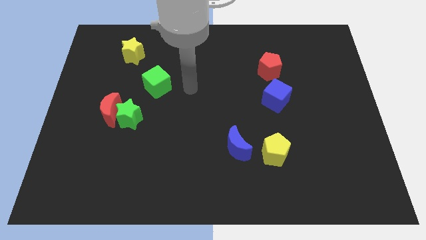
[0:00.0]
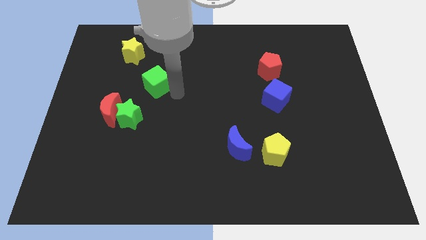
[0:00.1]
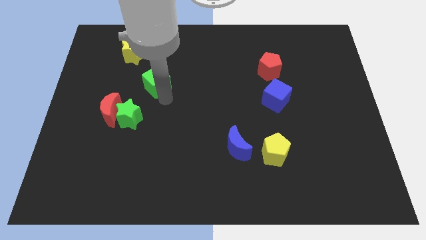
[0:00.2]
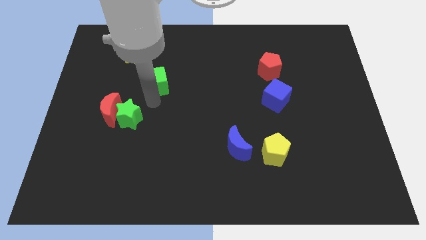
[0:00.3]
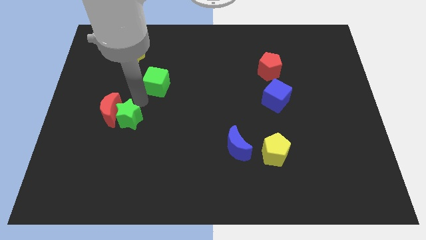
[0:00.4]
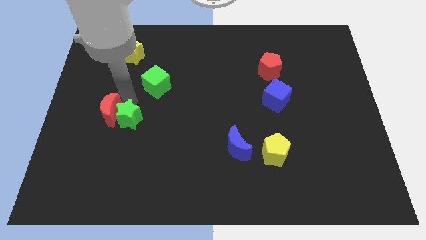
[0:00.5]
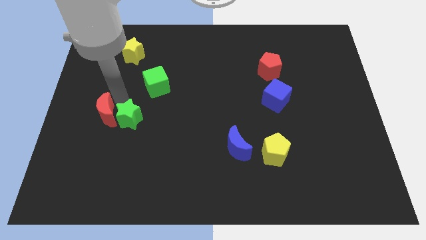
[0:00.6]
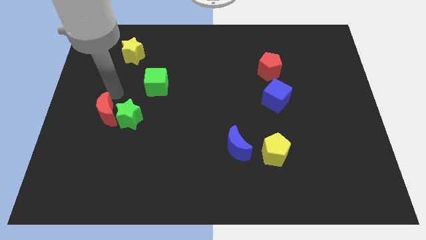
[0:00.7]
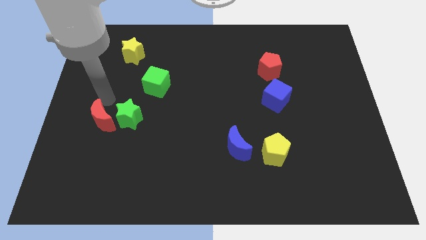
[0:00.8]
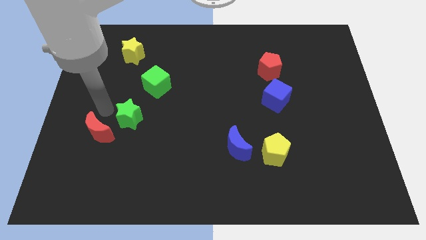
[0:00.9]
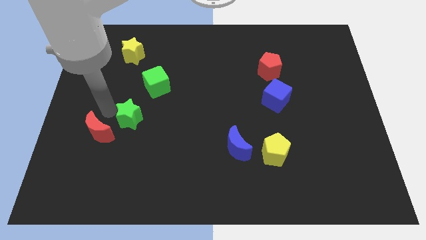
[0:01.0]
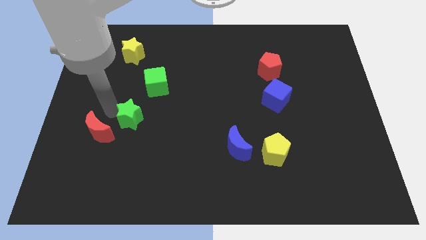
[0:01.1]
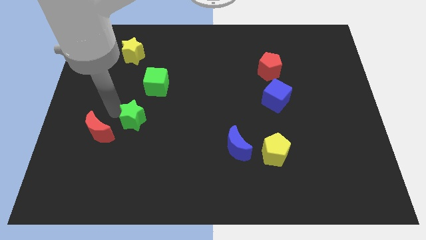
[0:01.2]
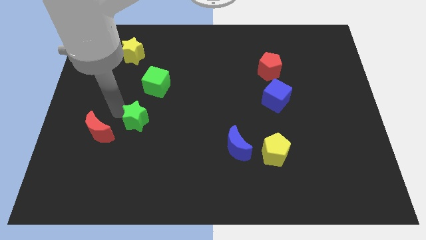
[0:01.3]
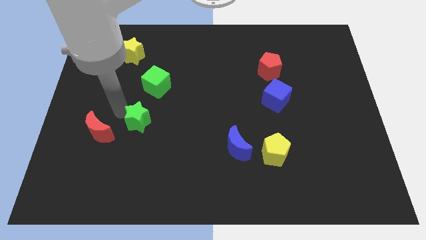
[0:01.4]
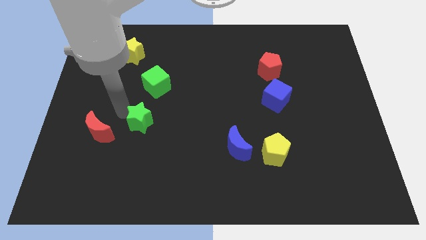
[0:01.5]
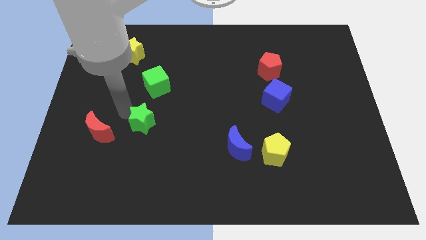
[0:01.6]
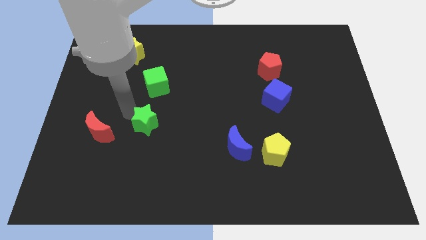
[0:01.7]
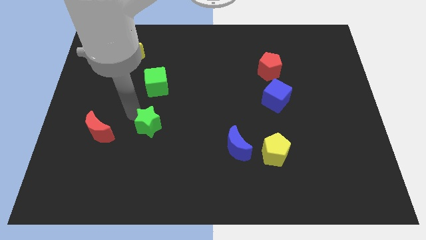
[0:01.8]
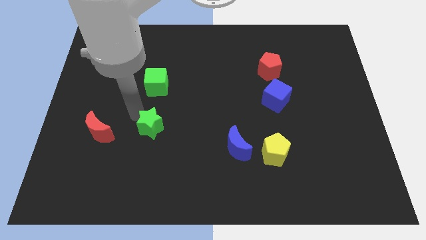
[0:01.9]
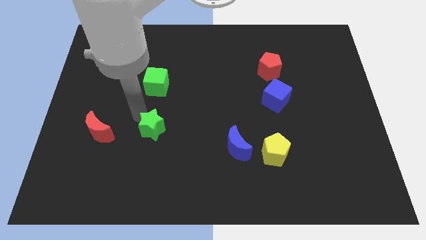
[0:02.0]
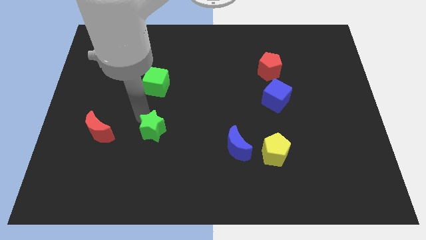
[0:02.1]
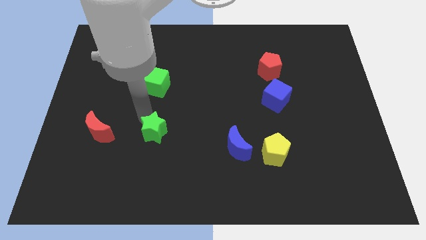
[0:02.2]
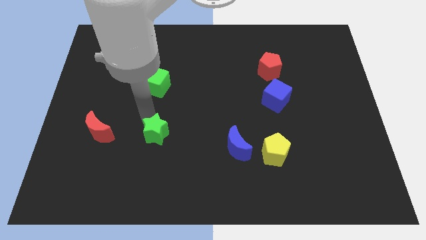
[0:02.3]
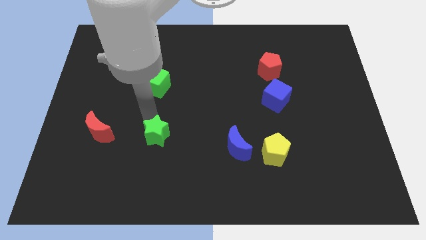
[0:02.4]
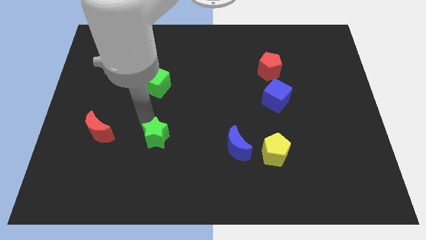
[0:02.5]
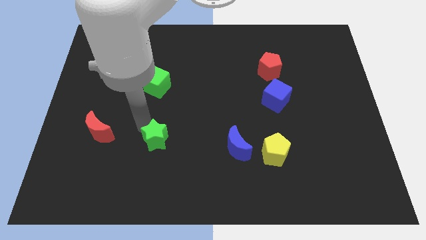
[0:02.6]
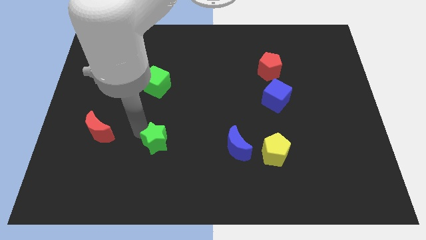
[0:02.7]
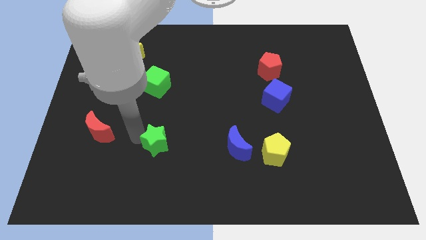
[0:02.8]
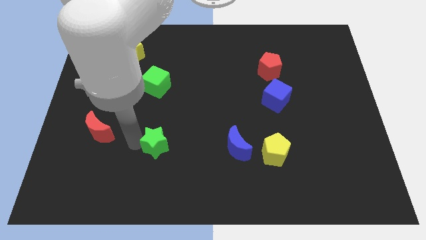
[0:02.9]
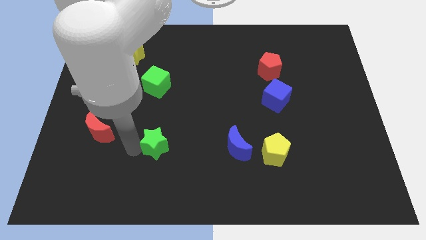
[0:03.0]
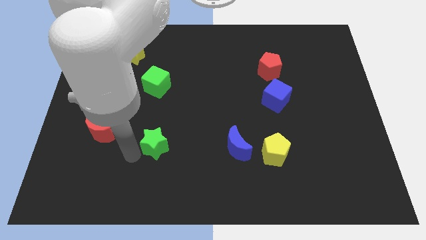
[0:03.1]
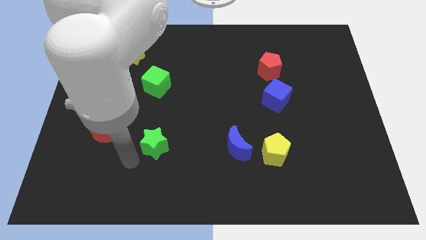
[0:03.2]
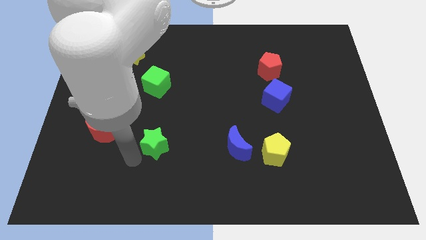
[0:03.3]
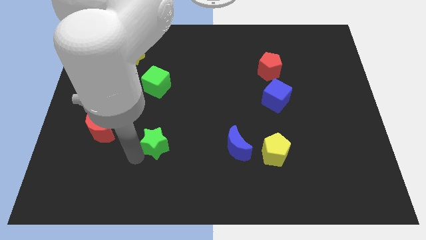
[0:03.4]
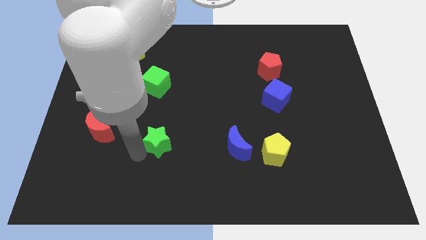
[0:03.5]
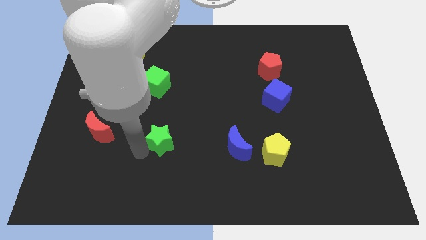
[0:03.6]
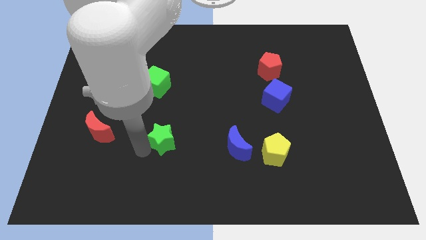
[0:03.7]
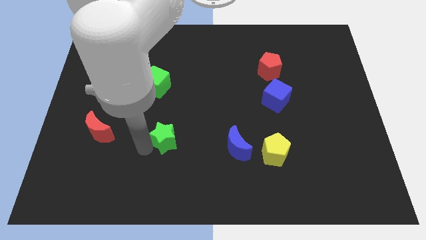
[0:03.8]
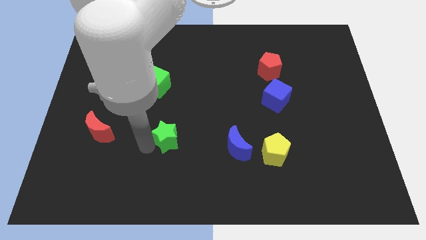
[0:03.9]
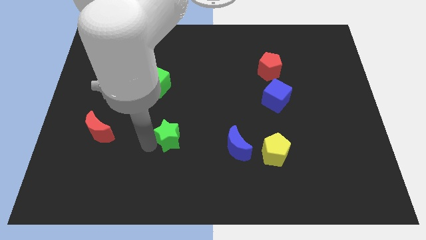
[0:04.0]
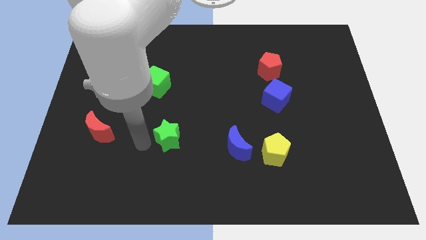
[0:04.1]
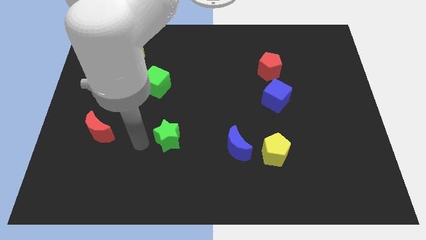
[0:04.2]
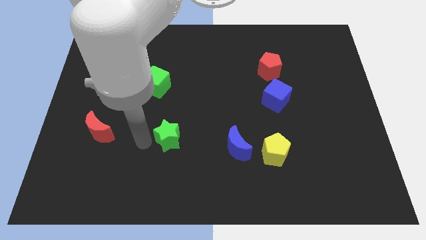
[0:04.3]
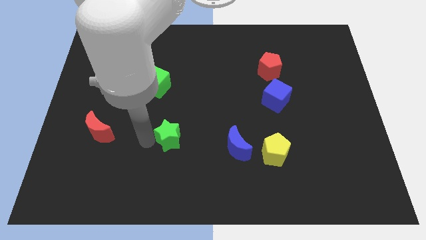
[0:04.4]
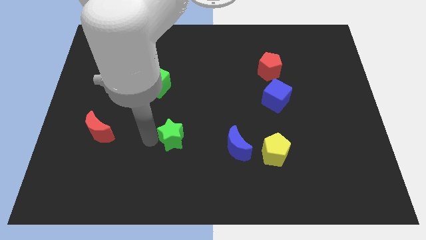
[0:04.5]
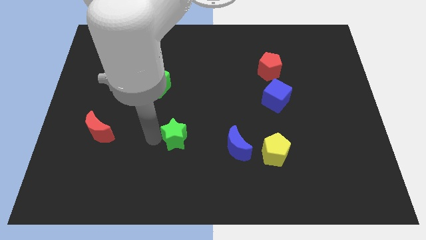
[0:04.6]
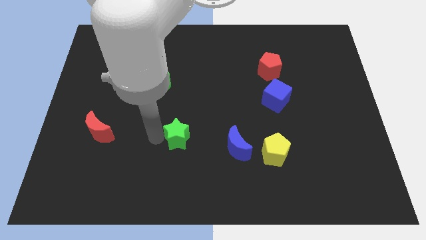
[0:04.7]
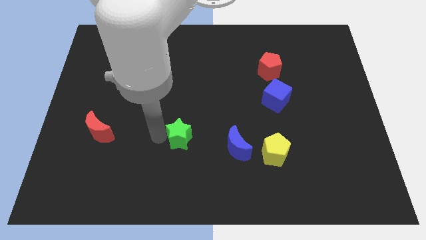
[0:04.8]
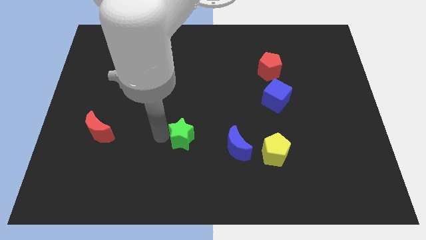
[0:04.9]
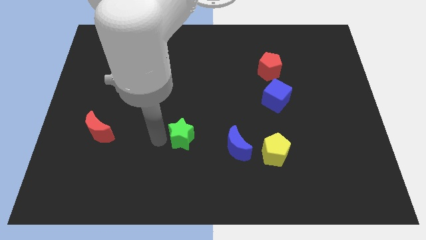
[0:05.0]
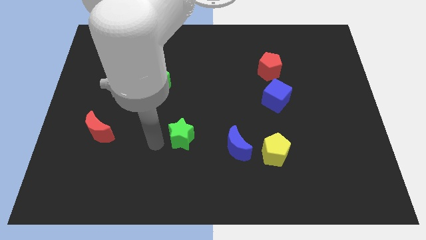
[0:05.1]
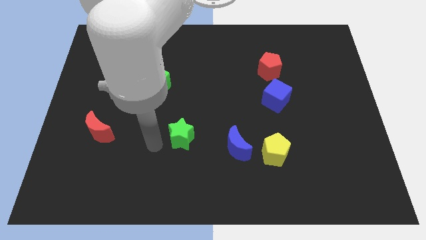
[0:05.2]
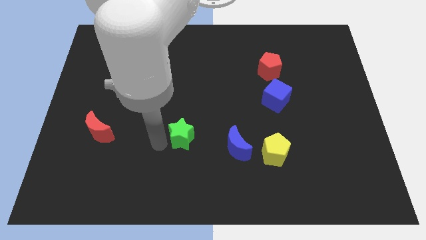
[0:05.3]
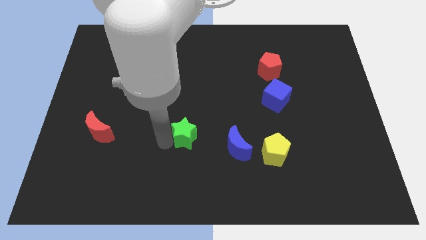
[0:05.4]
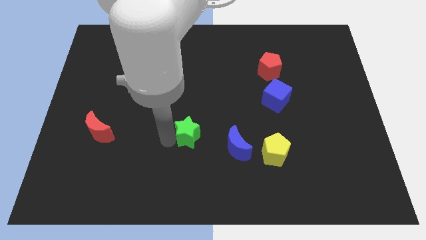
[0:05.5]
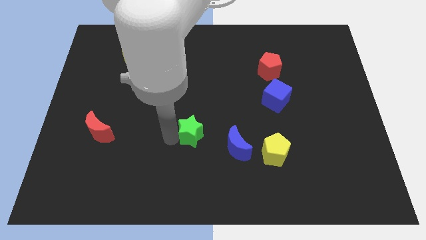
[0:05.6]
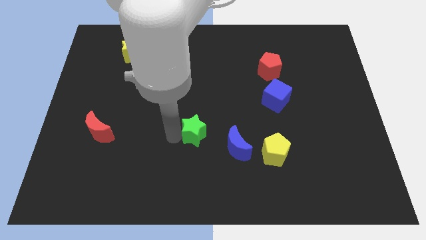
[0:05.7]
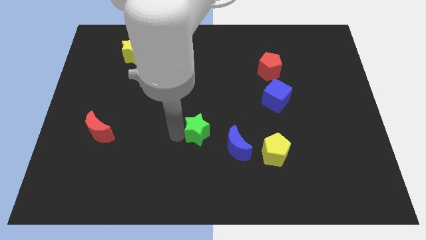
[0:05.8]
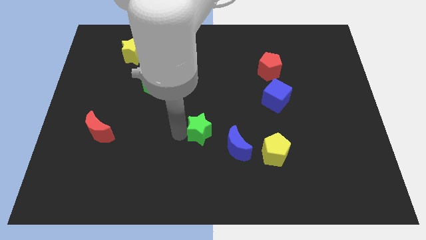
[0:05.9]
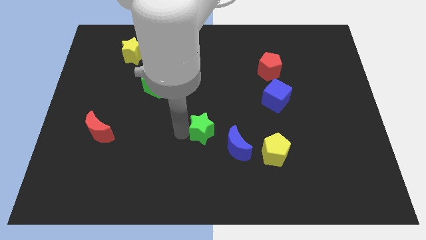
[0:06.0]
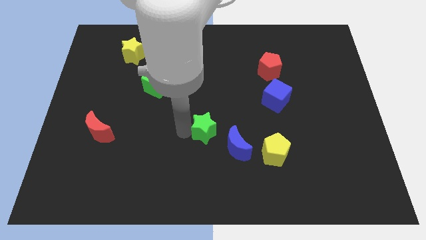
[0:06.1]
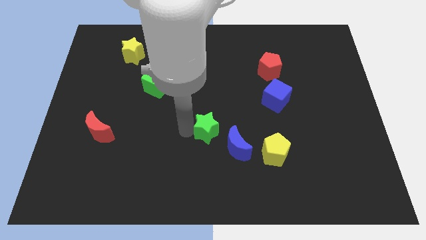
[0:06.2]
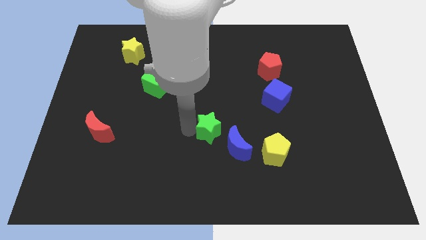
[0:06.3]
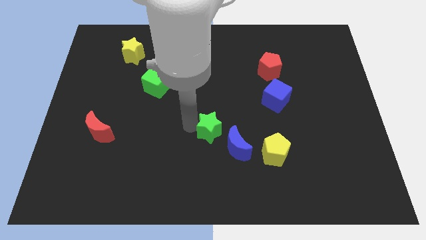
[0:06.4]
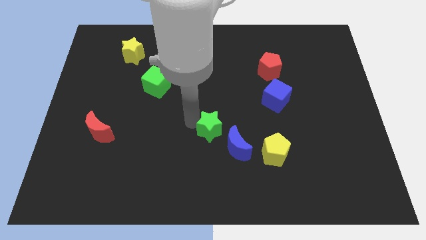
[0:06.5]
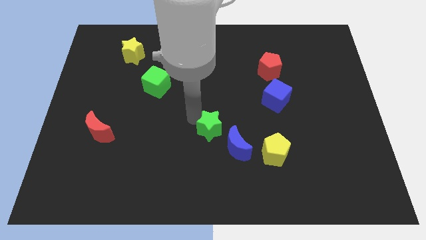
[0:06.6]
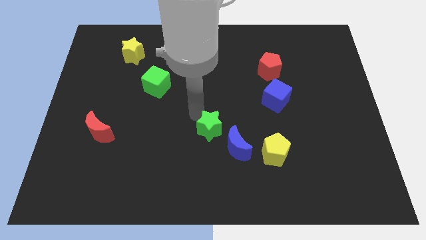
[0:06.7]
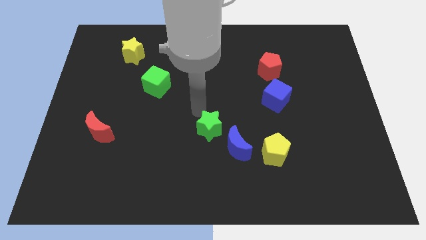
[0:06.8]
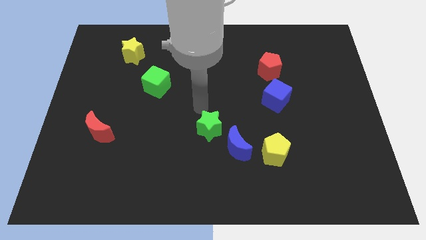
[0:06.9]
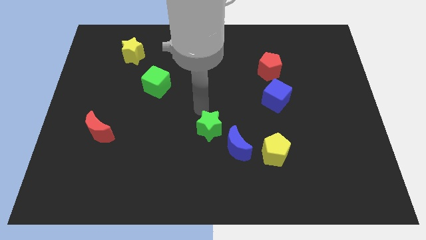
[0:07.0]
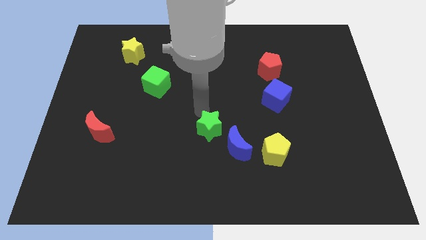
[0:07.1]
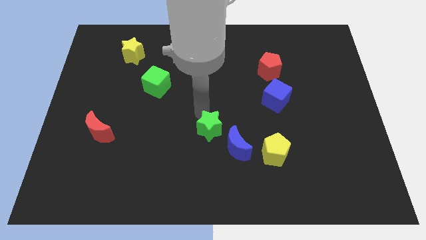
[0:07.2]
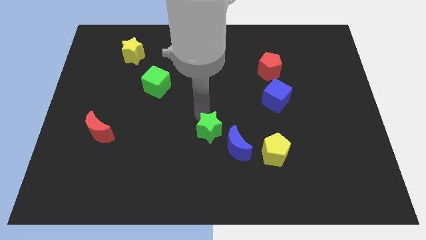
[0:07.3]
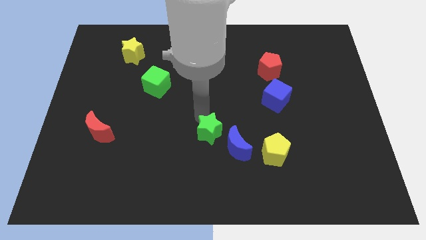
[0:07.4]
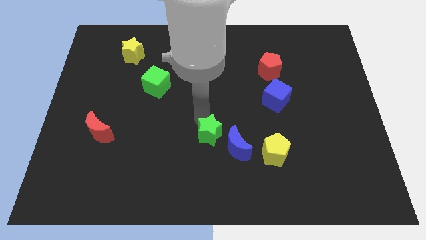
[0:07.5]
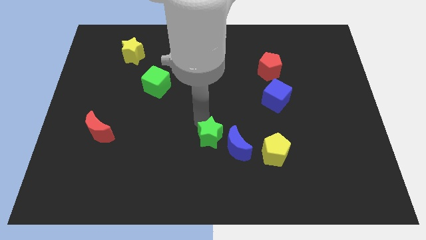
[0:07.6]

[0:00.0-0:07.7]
push the green star towards the blue moon
